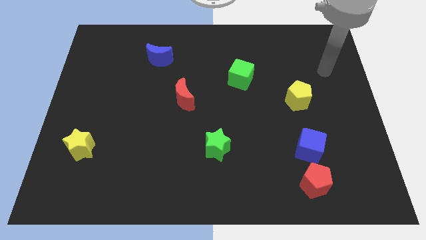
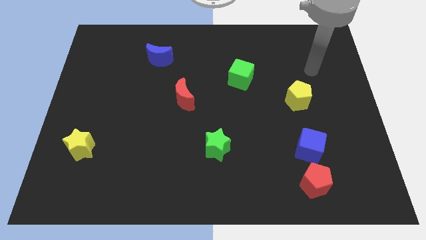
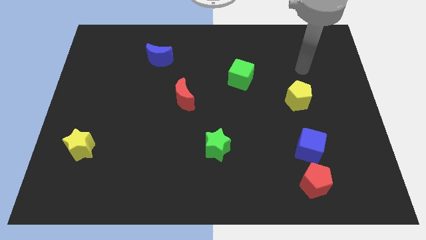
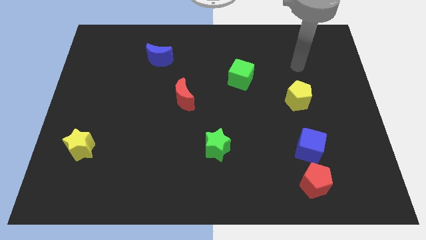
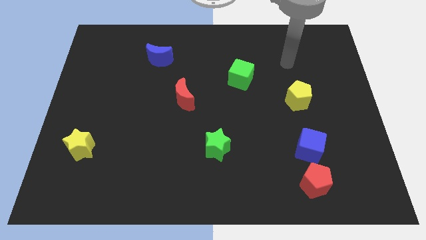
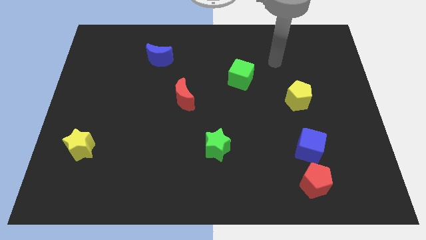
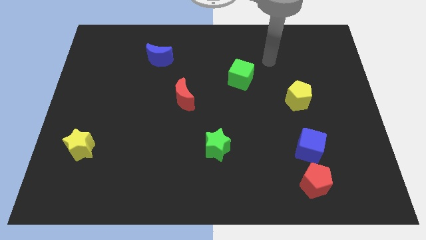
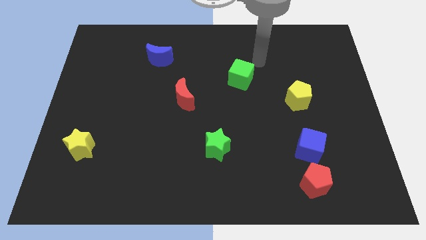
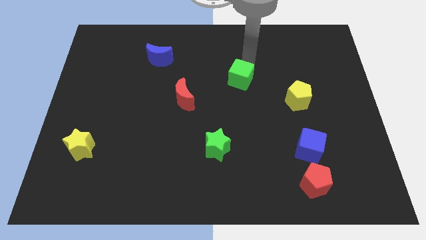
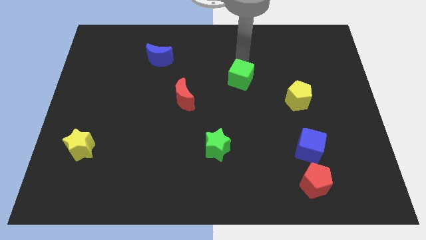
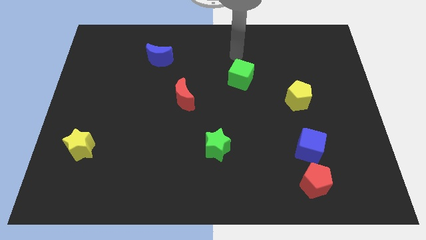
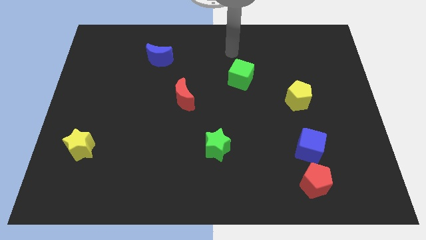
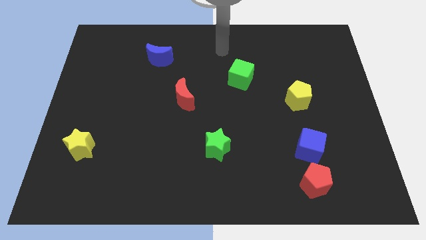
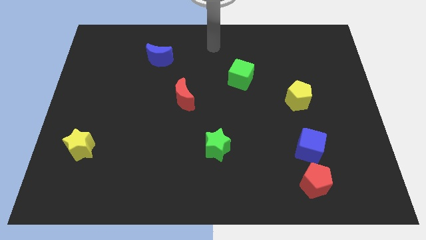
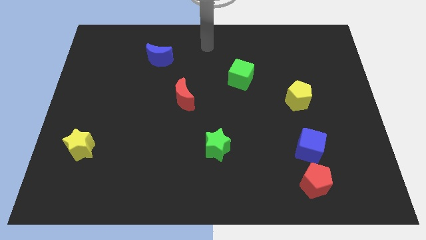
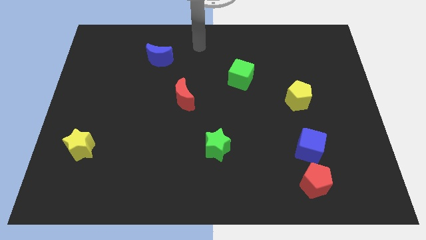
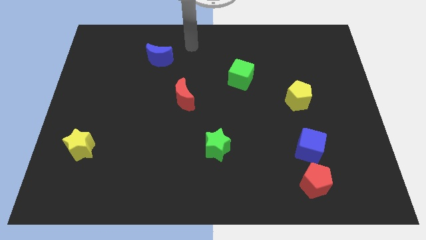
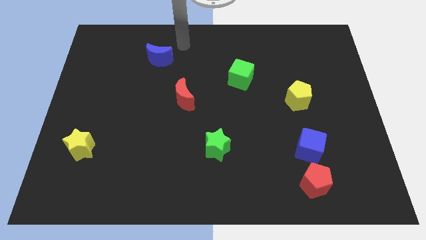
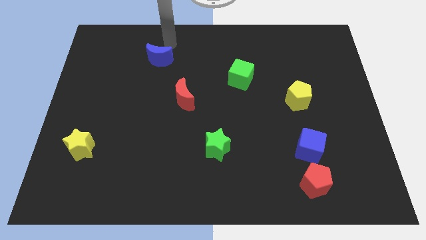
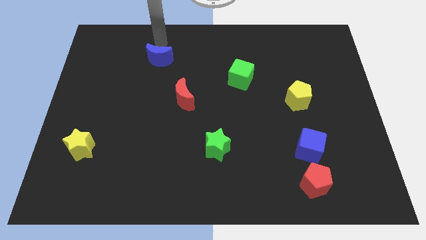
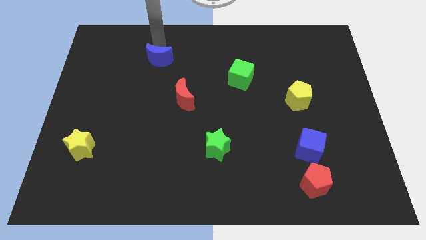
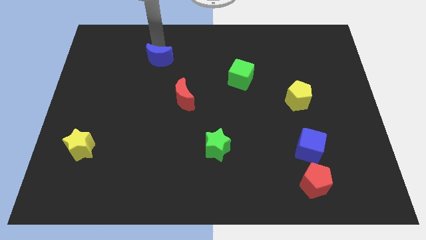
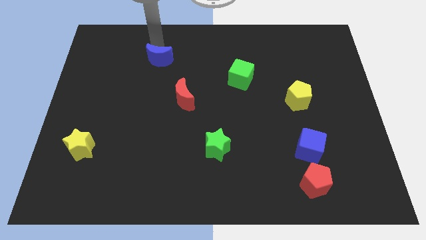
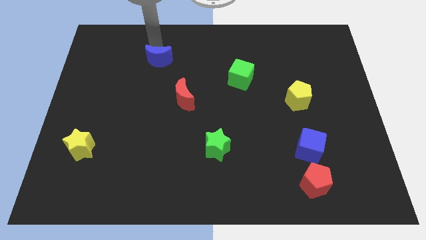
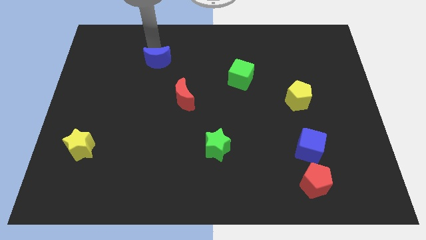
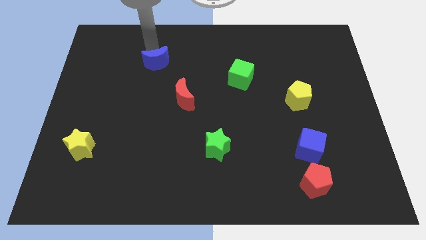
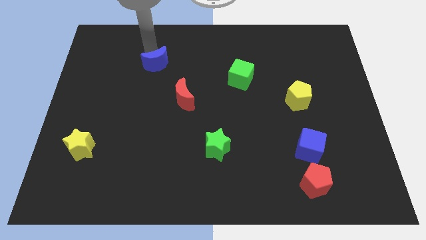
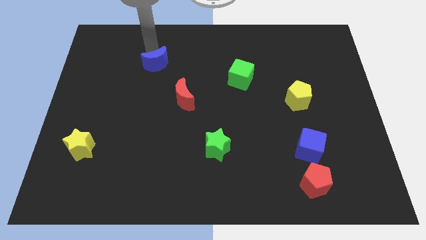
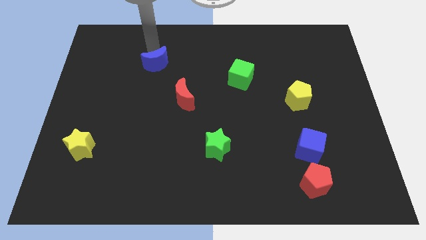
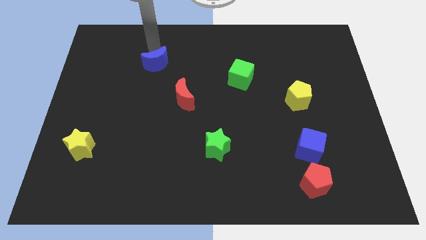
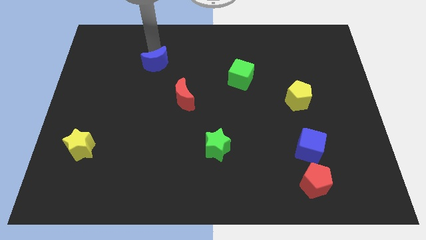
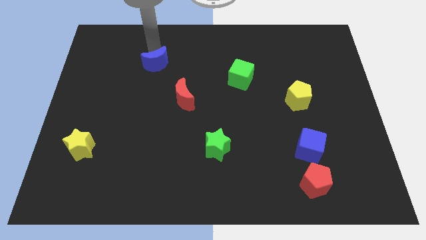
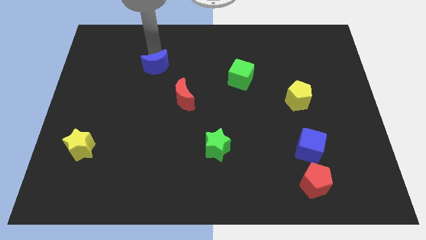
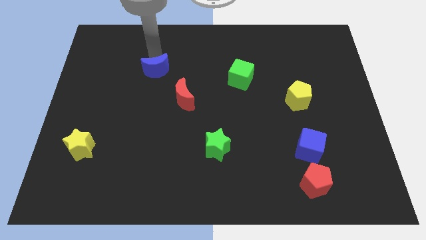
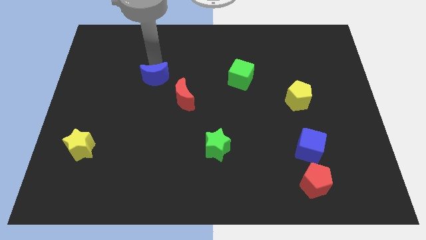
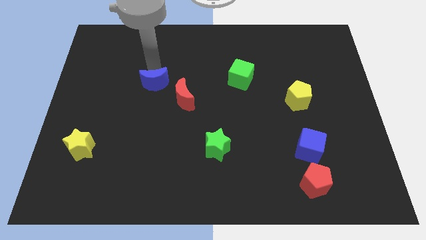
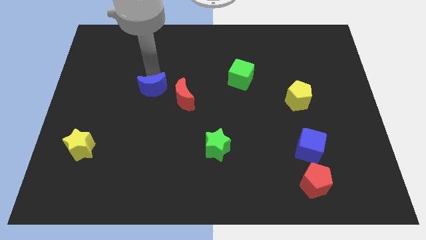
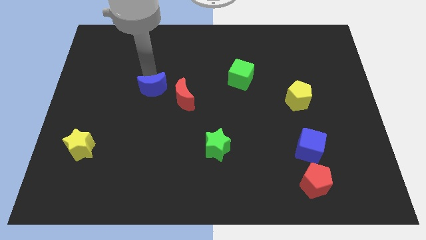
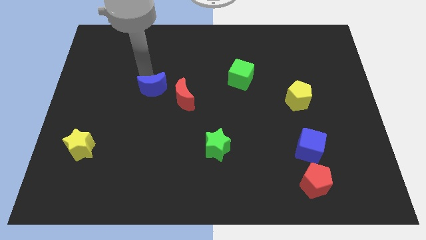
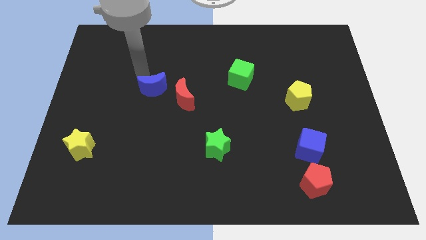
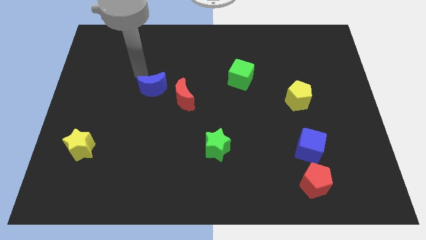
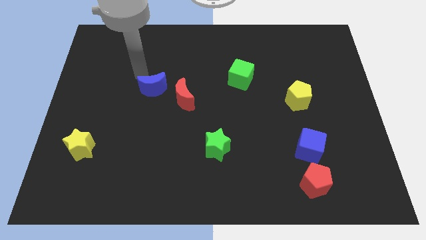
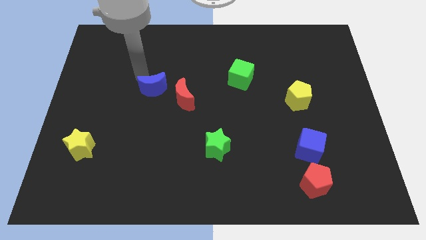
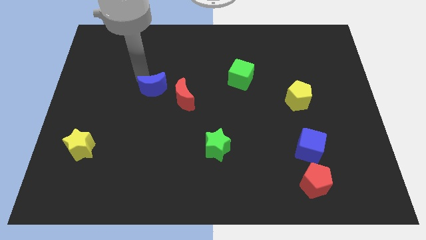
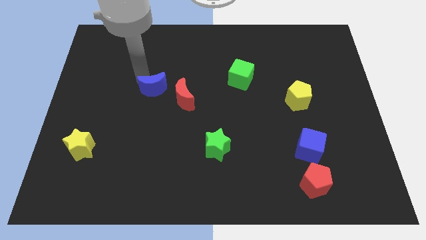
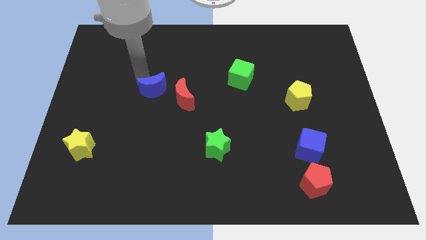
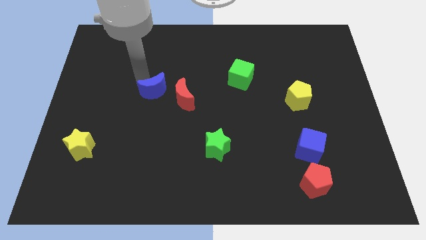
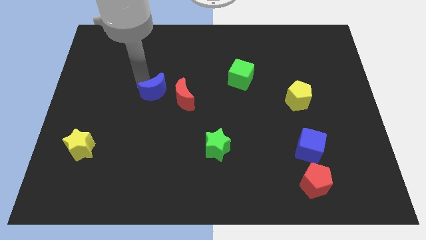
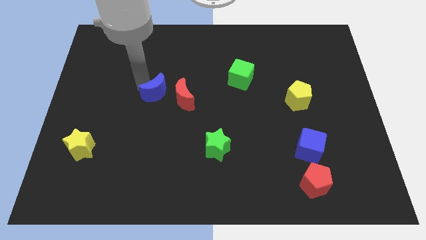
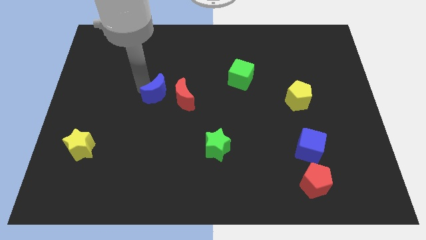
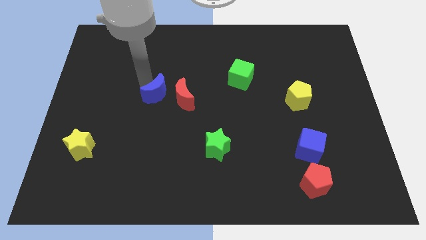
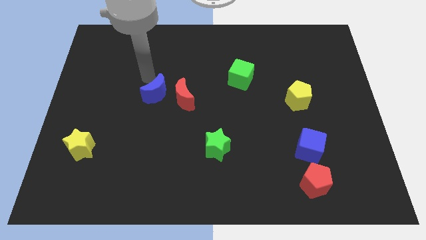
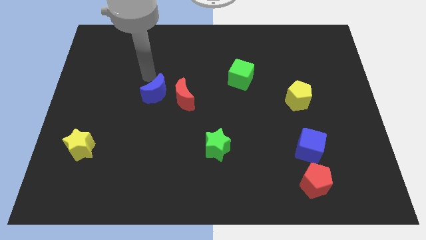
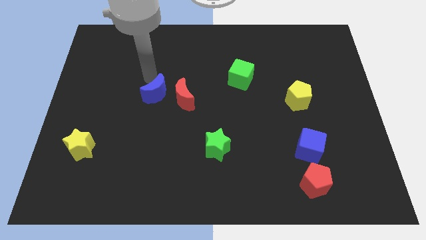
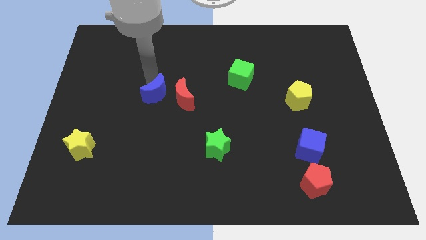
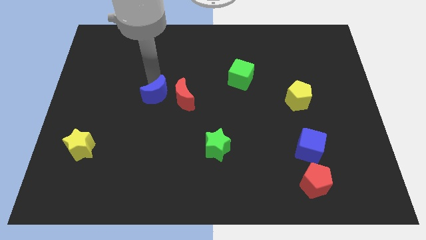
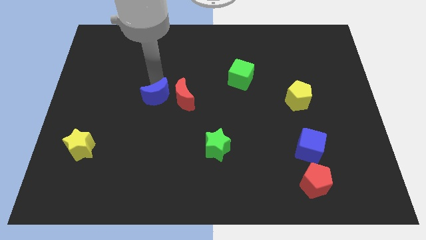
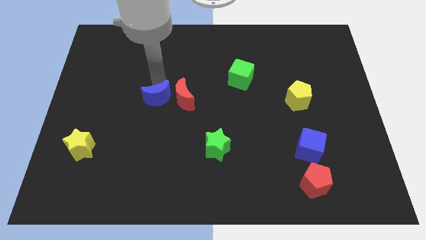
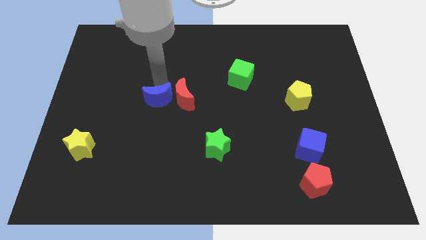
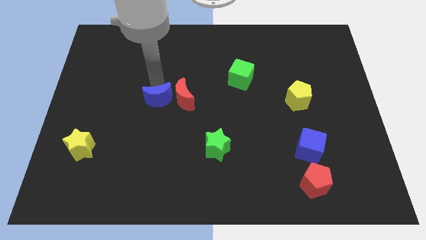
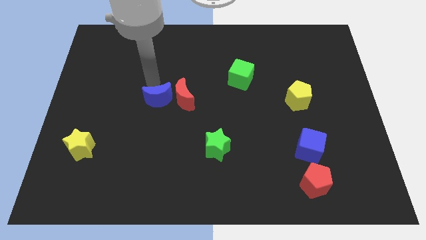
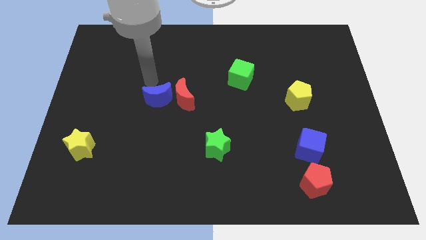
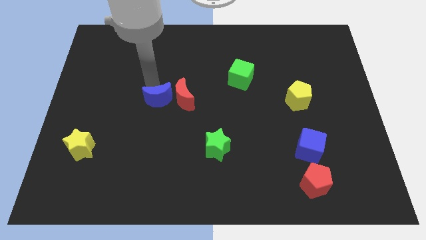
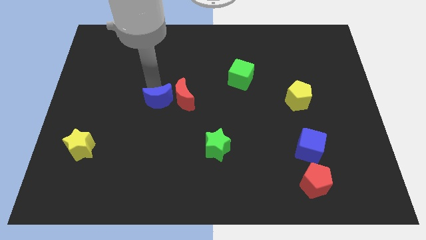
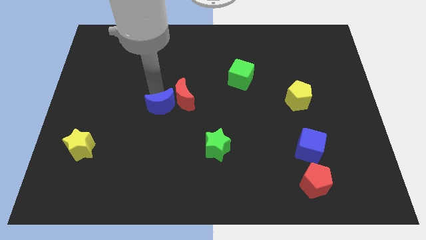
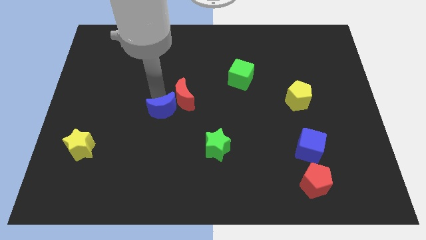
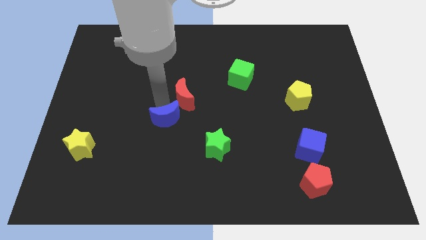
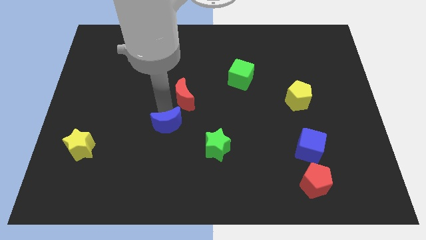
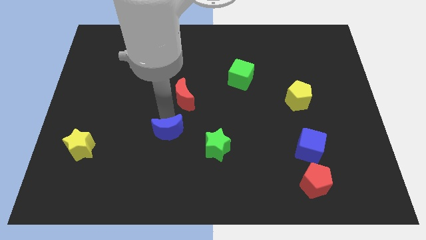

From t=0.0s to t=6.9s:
move the blue moon just left of the green star

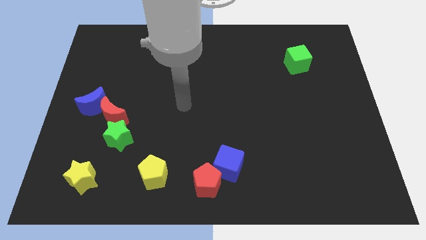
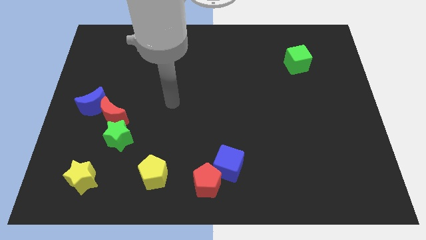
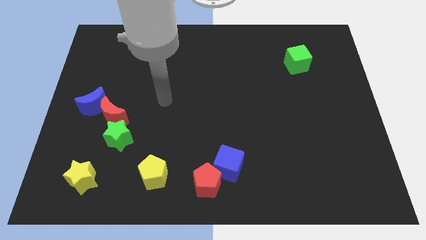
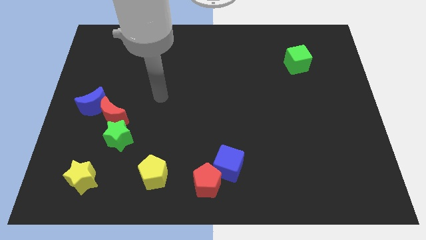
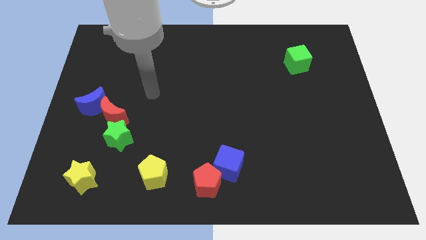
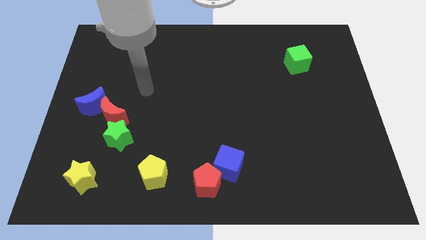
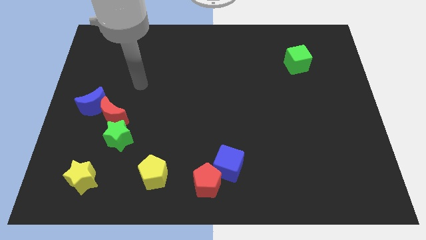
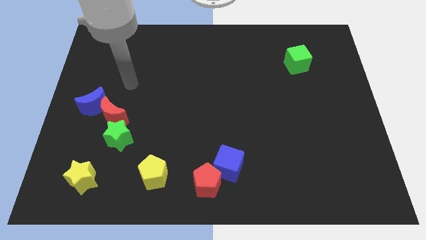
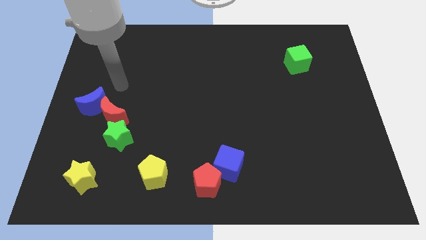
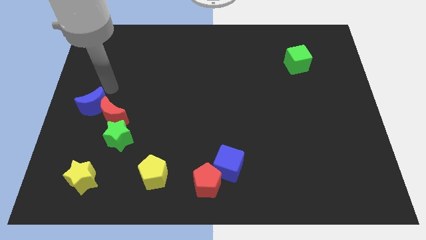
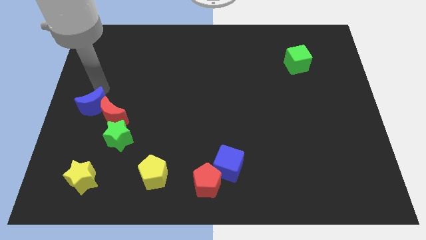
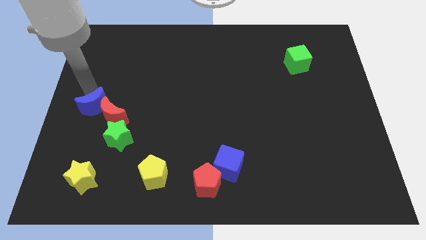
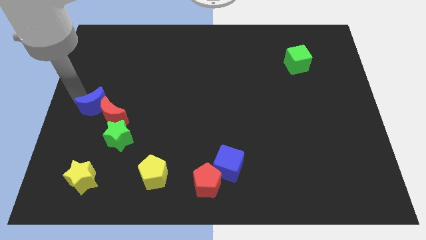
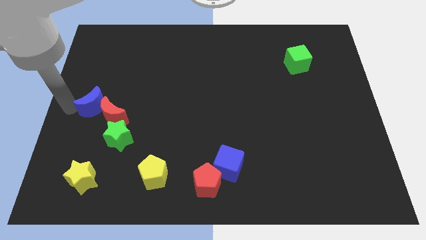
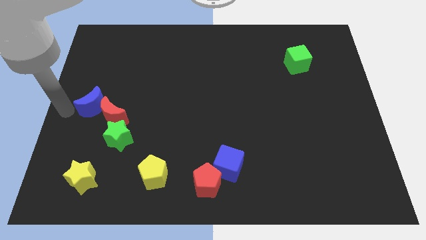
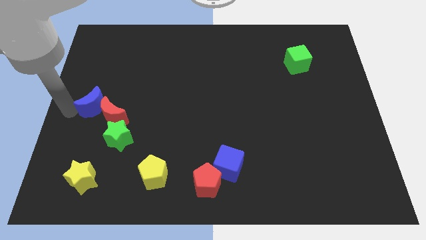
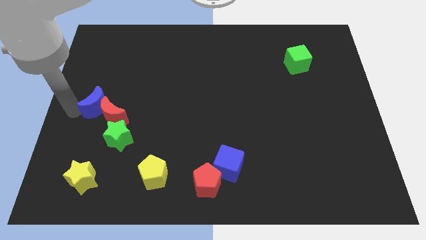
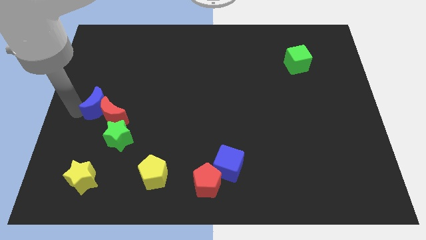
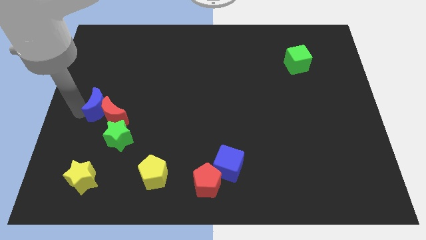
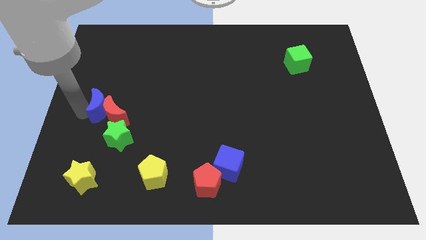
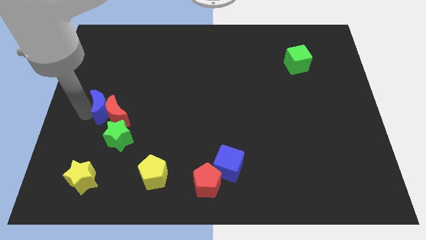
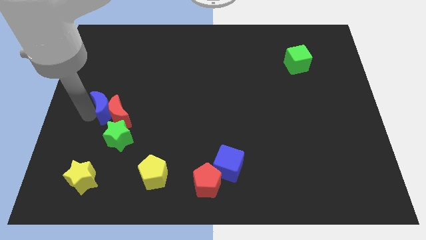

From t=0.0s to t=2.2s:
push the blue moon to the top of the green star
